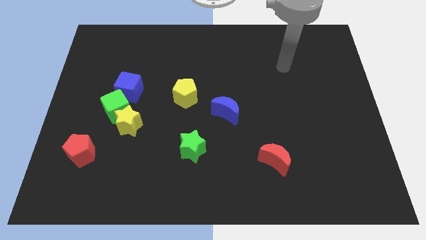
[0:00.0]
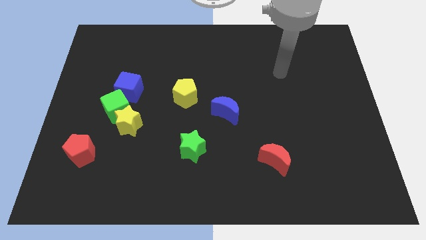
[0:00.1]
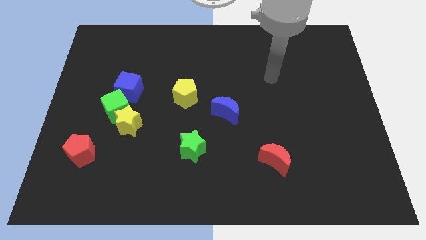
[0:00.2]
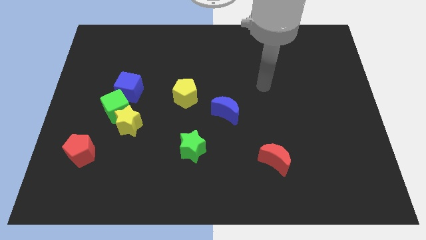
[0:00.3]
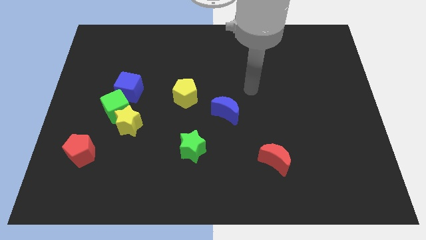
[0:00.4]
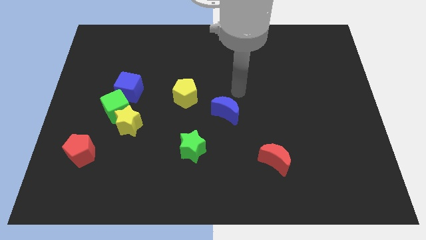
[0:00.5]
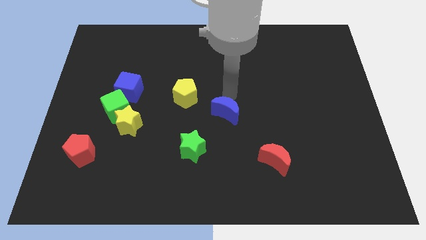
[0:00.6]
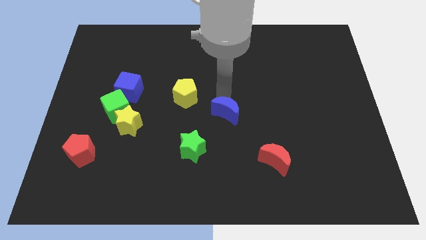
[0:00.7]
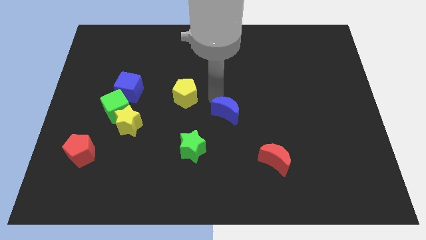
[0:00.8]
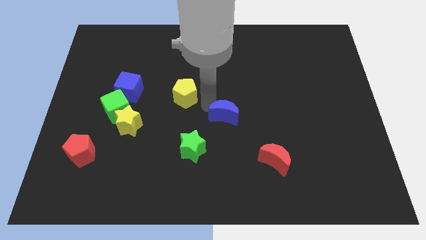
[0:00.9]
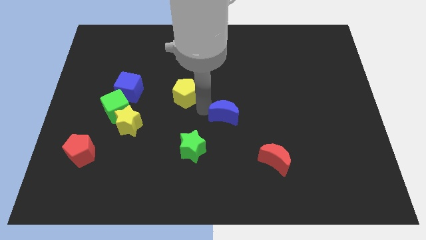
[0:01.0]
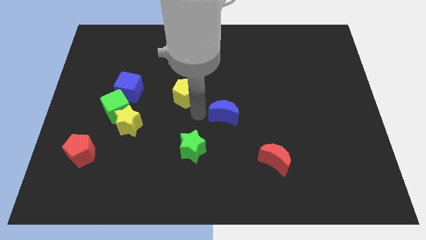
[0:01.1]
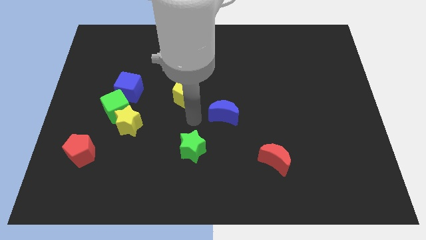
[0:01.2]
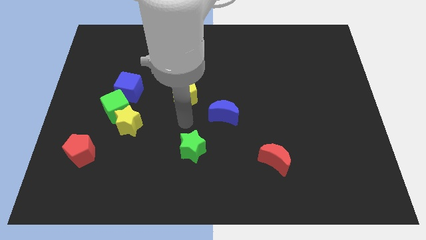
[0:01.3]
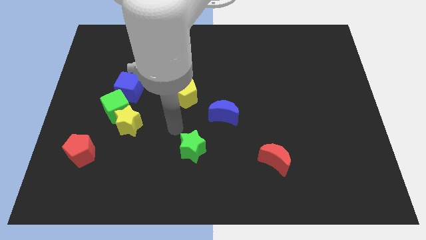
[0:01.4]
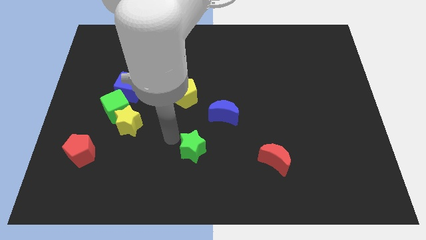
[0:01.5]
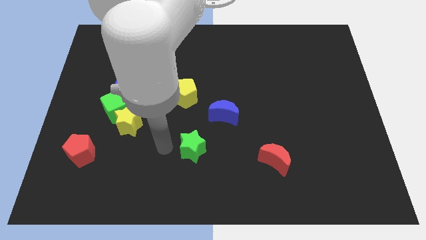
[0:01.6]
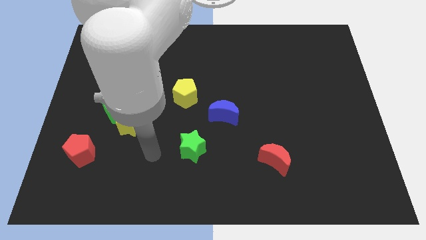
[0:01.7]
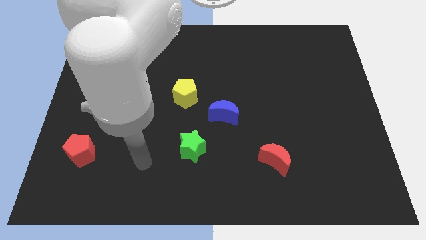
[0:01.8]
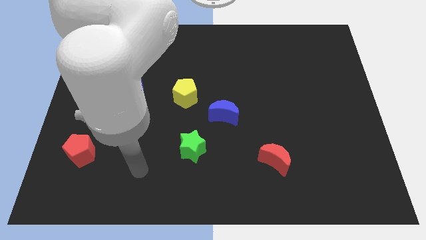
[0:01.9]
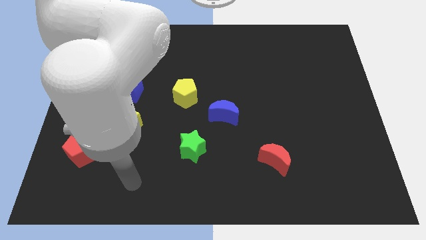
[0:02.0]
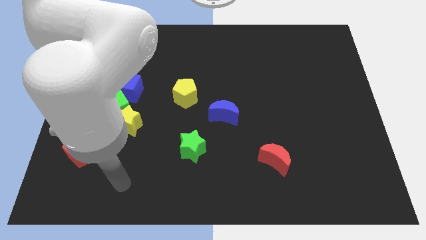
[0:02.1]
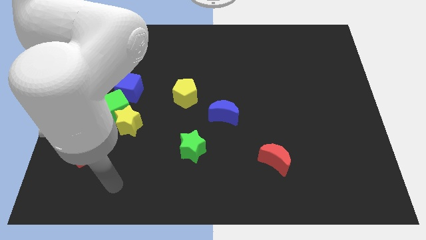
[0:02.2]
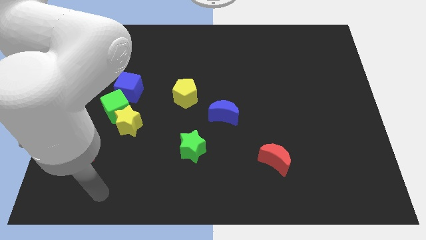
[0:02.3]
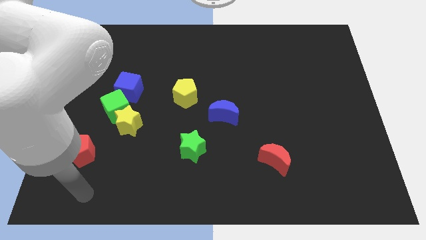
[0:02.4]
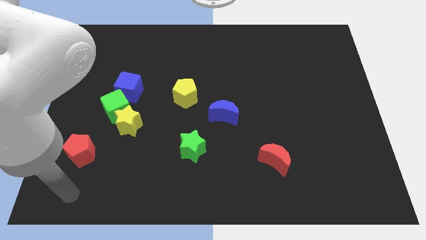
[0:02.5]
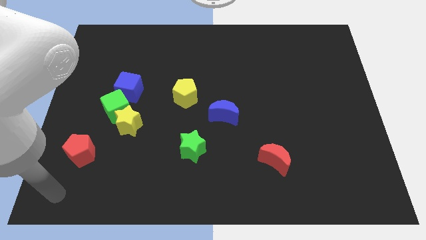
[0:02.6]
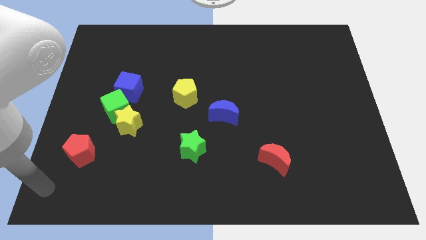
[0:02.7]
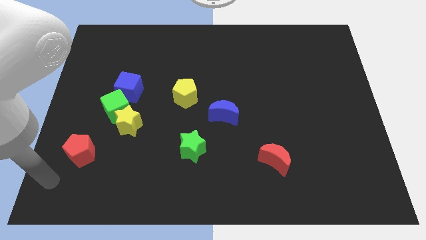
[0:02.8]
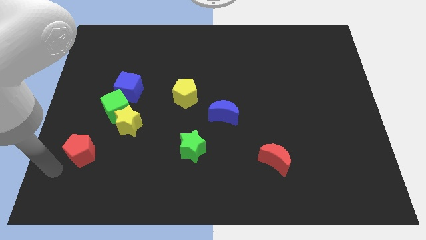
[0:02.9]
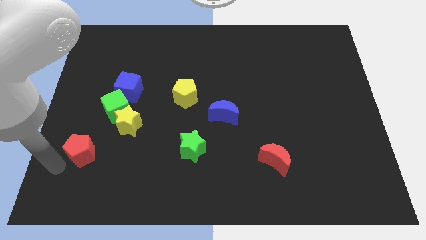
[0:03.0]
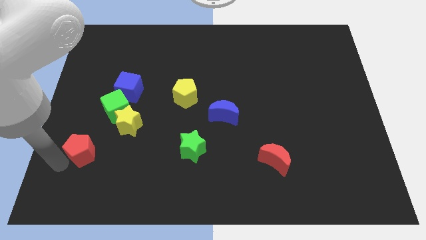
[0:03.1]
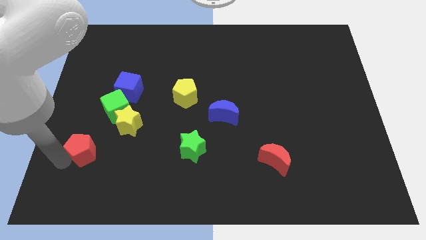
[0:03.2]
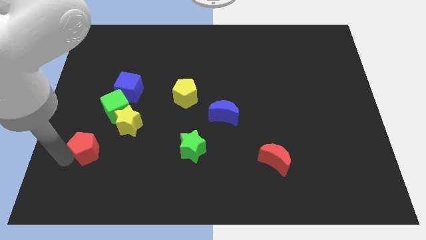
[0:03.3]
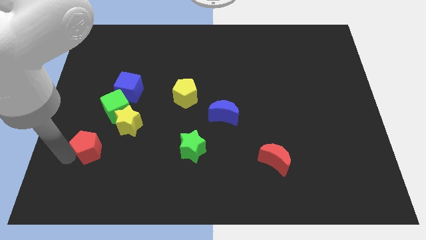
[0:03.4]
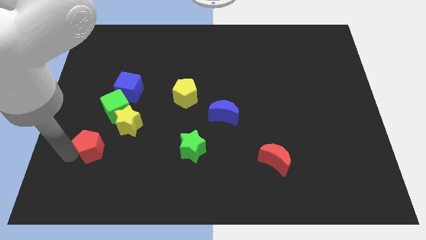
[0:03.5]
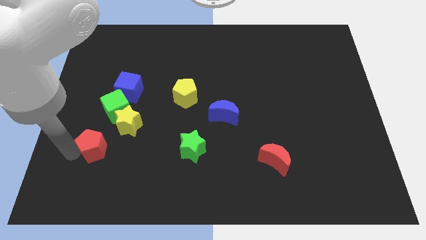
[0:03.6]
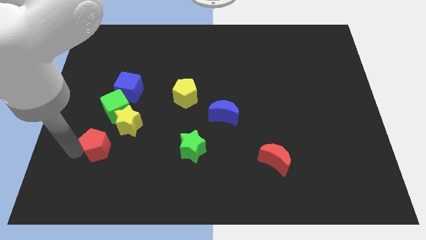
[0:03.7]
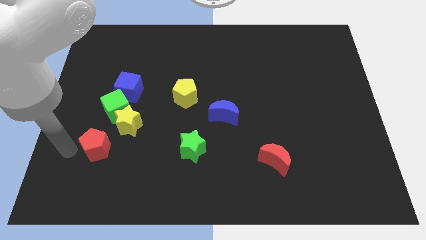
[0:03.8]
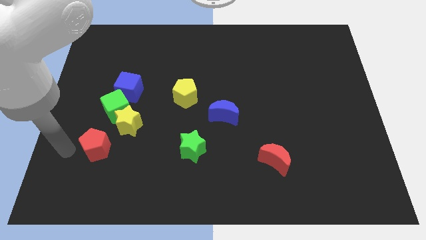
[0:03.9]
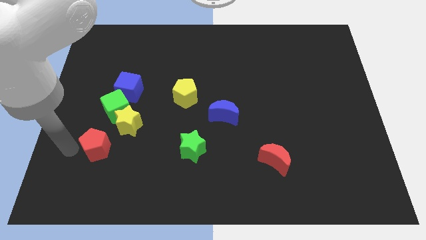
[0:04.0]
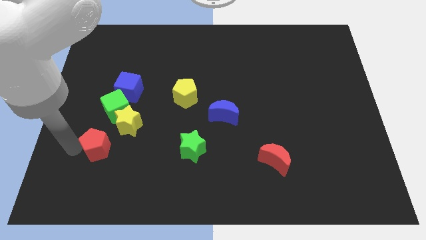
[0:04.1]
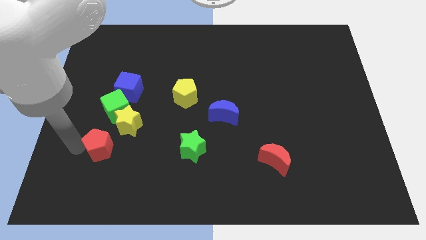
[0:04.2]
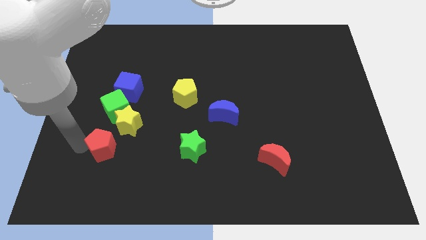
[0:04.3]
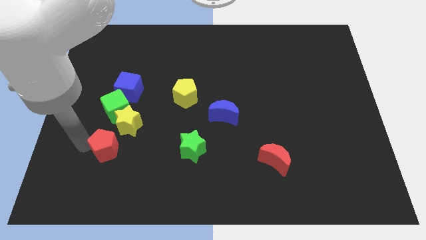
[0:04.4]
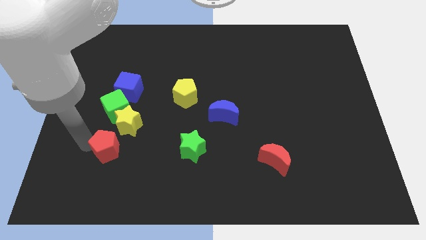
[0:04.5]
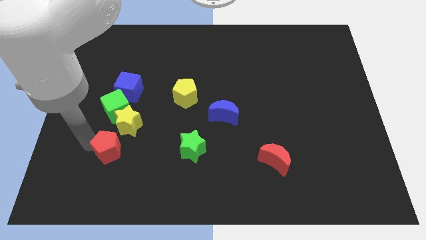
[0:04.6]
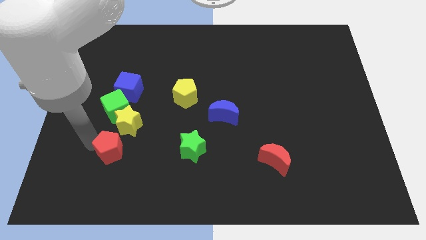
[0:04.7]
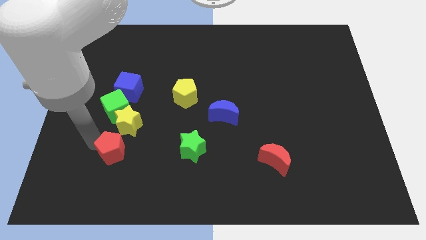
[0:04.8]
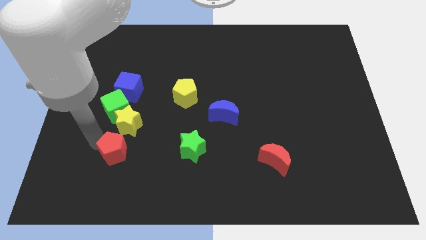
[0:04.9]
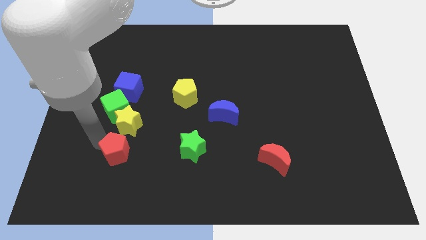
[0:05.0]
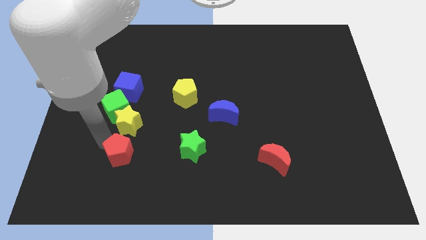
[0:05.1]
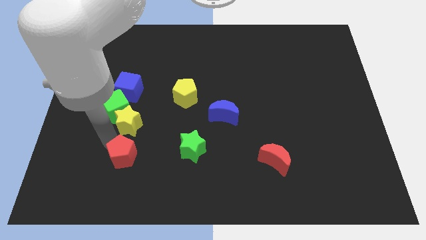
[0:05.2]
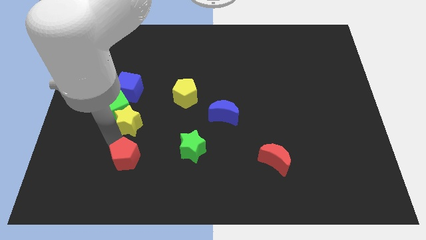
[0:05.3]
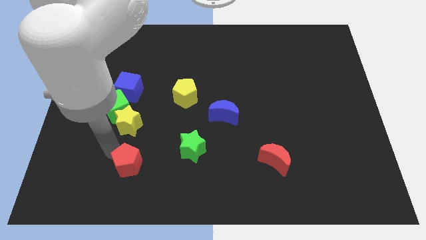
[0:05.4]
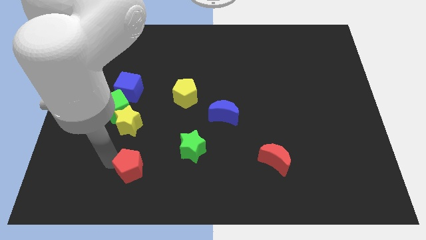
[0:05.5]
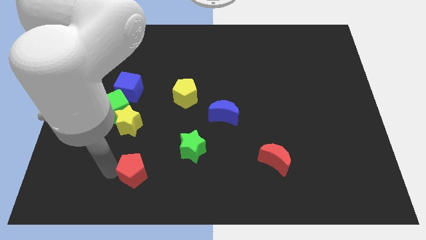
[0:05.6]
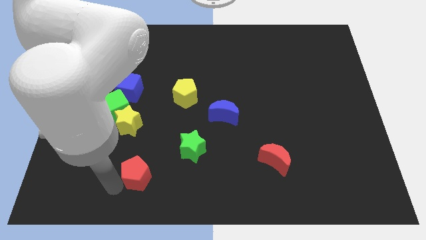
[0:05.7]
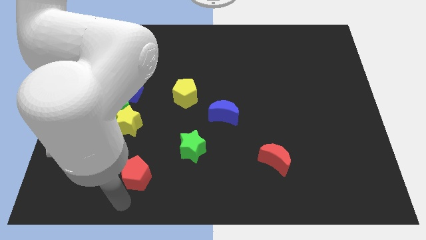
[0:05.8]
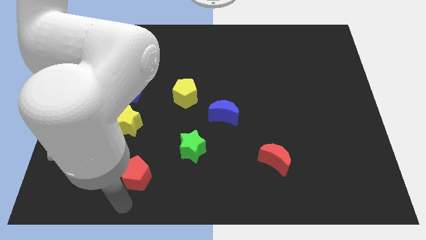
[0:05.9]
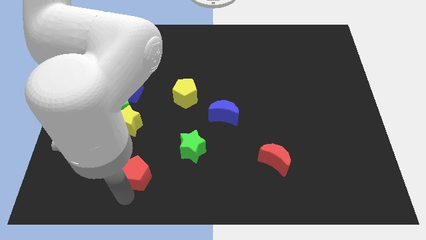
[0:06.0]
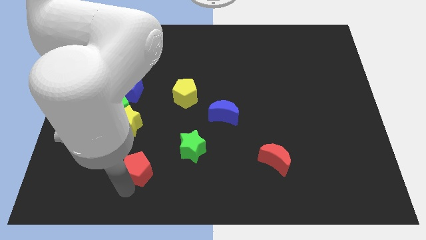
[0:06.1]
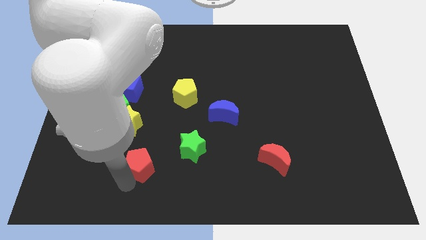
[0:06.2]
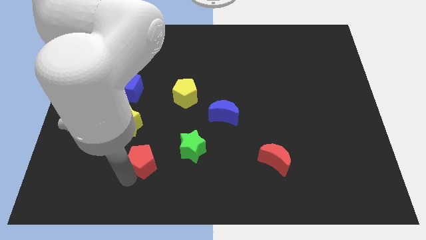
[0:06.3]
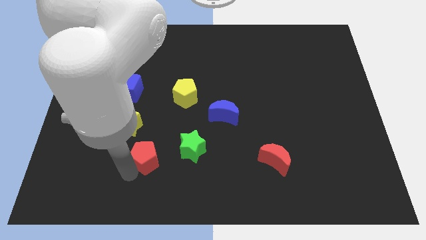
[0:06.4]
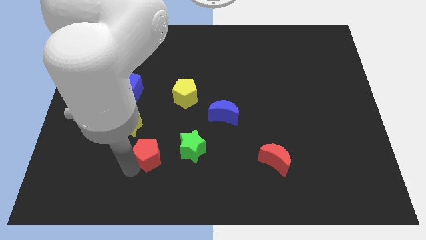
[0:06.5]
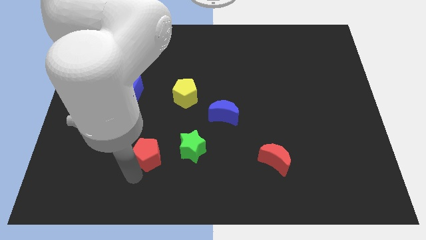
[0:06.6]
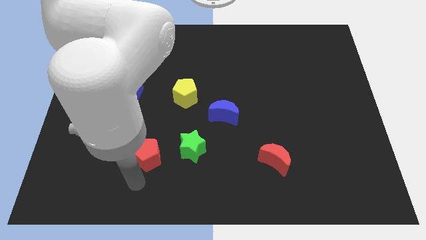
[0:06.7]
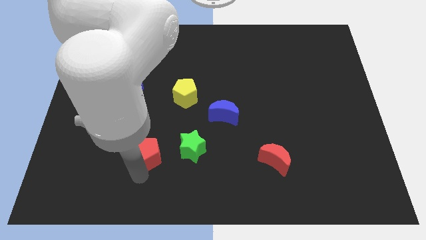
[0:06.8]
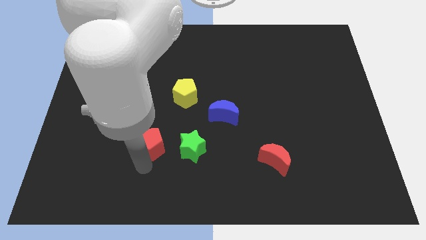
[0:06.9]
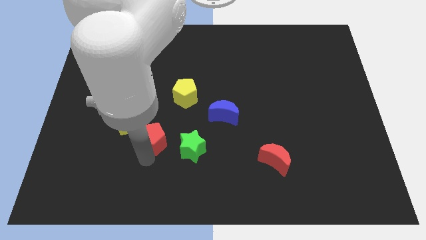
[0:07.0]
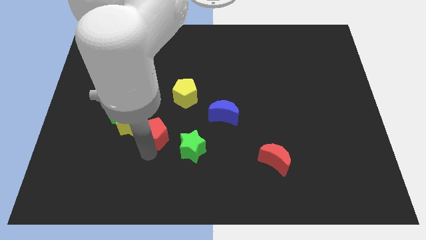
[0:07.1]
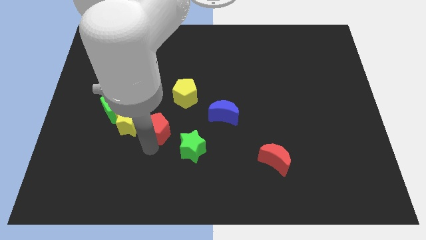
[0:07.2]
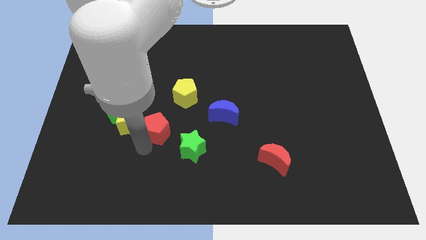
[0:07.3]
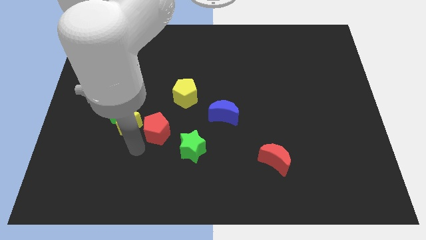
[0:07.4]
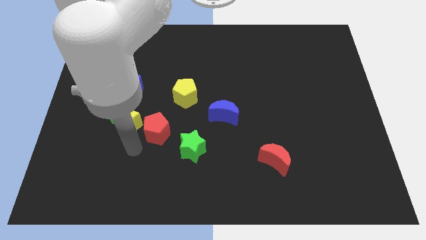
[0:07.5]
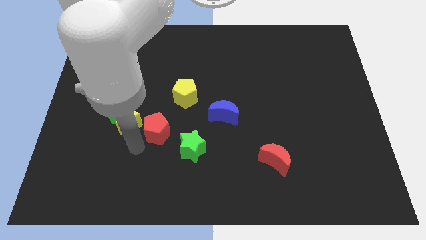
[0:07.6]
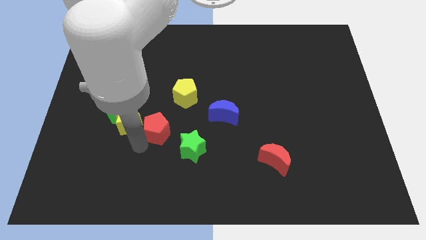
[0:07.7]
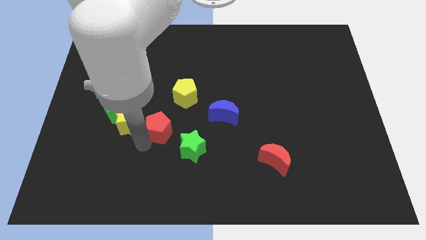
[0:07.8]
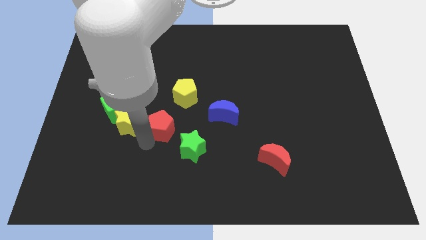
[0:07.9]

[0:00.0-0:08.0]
move the red pentagon to the left side of the blue moon
